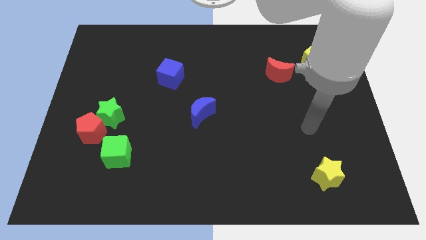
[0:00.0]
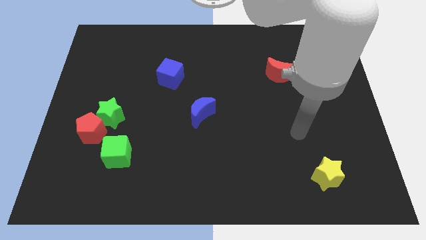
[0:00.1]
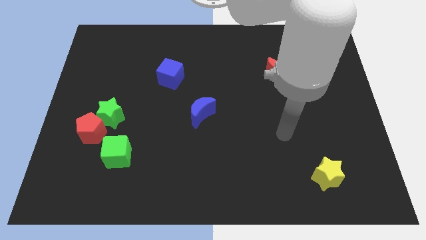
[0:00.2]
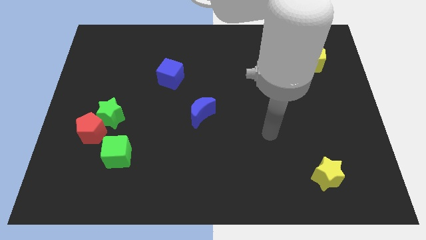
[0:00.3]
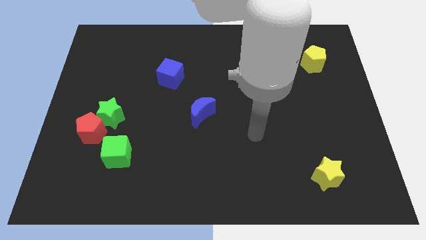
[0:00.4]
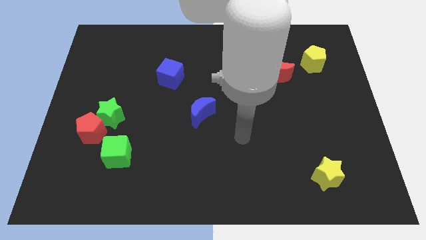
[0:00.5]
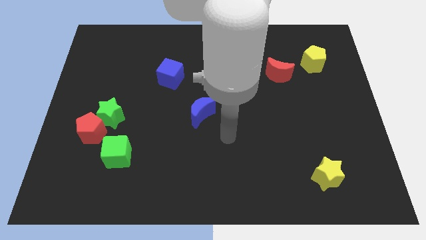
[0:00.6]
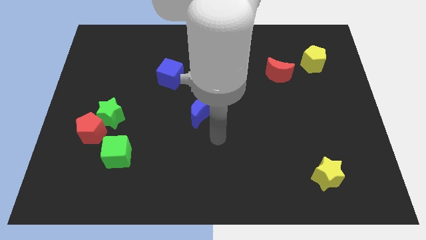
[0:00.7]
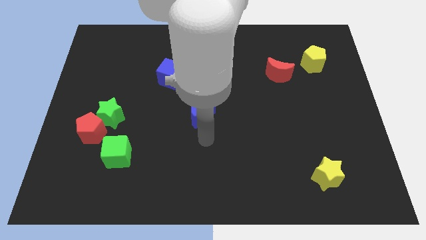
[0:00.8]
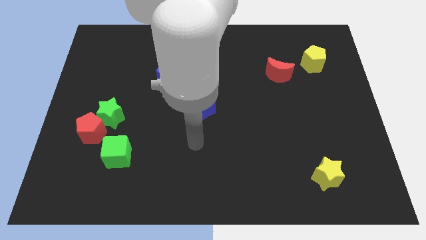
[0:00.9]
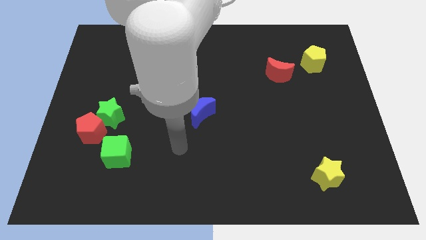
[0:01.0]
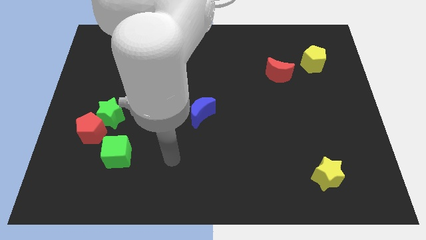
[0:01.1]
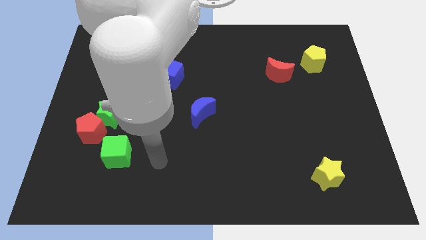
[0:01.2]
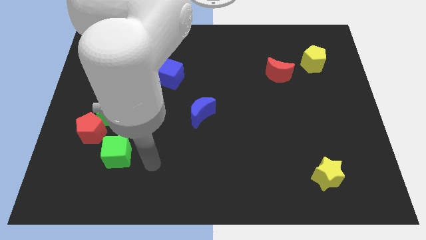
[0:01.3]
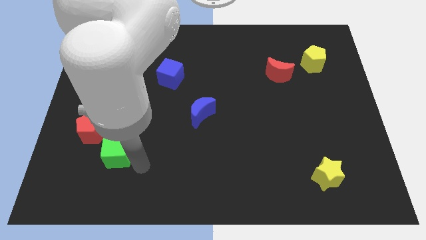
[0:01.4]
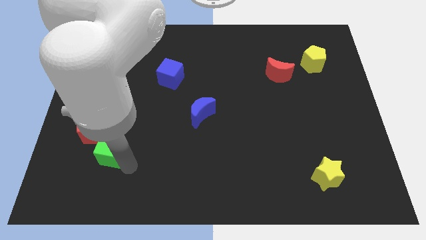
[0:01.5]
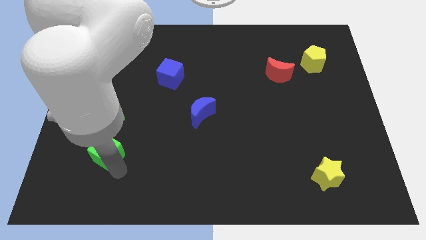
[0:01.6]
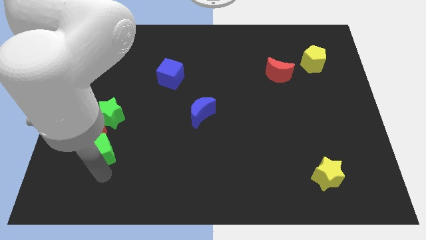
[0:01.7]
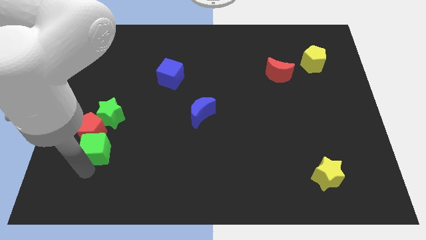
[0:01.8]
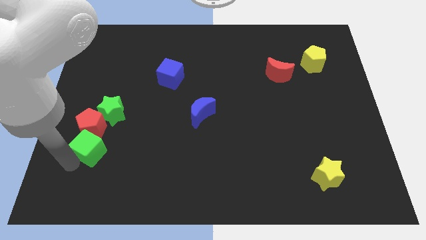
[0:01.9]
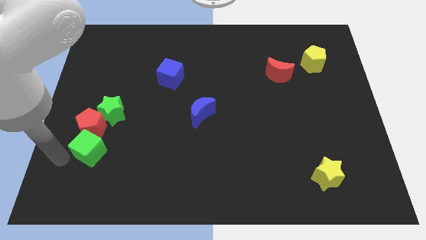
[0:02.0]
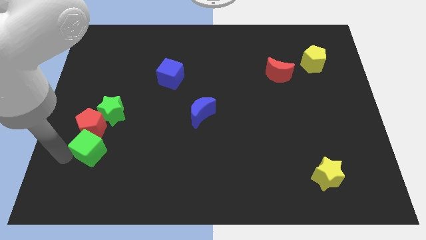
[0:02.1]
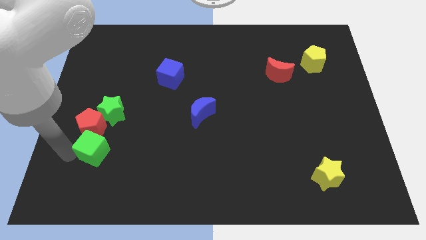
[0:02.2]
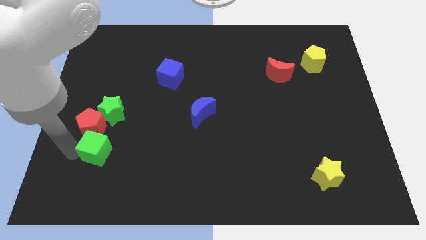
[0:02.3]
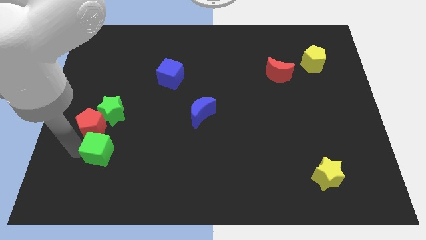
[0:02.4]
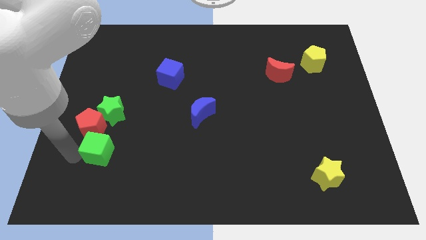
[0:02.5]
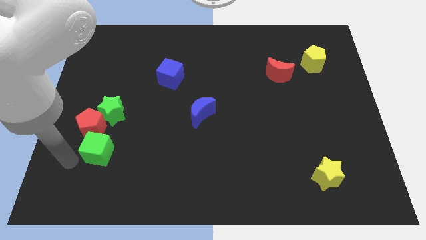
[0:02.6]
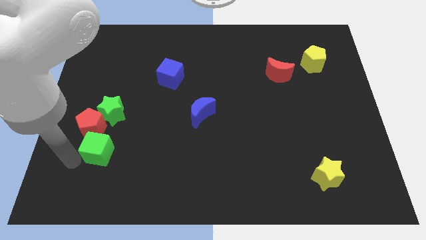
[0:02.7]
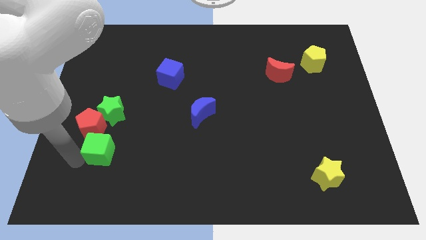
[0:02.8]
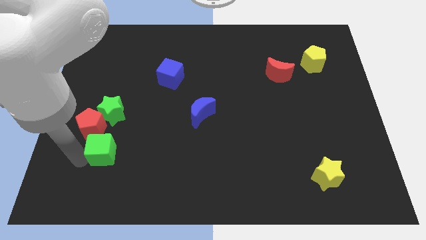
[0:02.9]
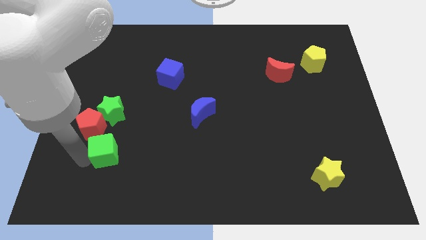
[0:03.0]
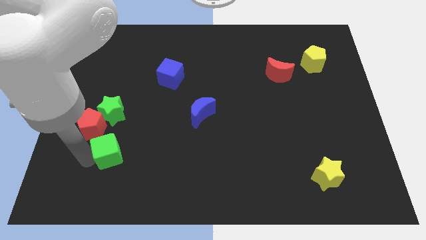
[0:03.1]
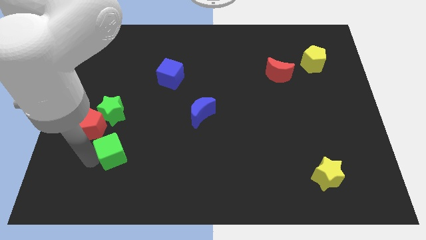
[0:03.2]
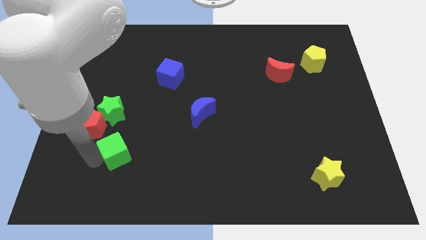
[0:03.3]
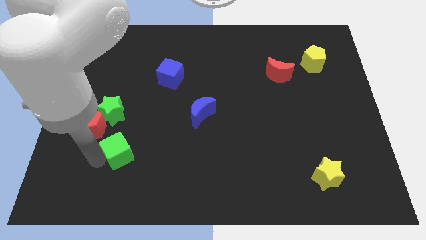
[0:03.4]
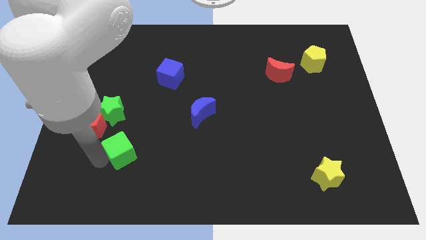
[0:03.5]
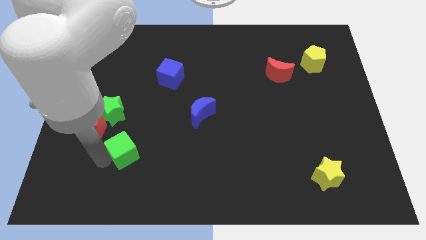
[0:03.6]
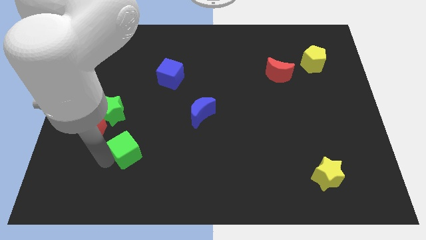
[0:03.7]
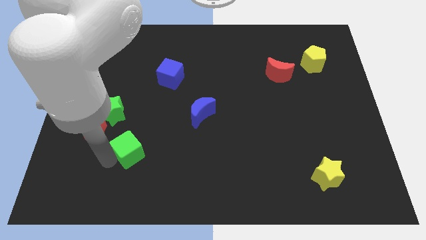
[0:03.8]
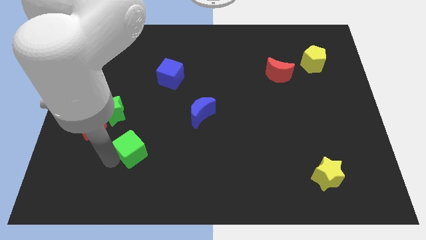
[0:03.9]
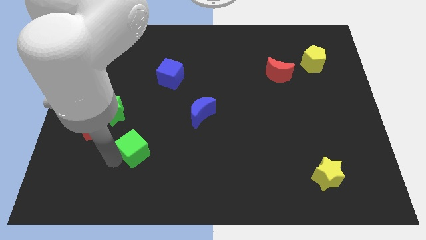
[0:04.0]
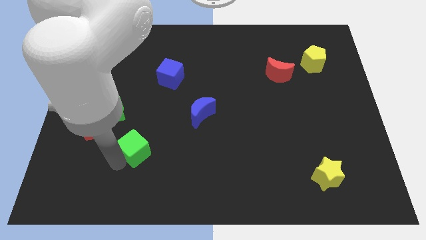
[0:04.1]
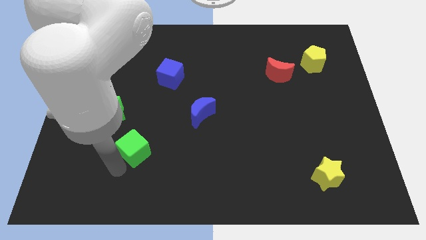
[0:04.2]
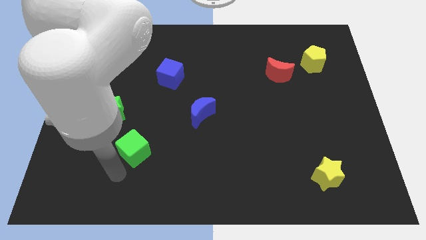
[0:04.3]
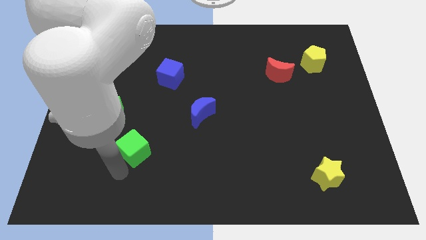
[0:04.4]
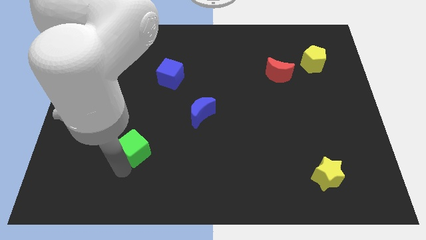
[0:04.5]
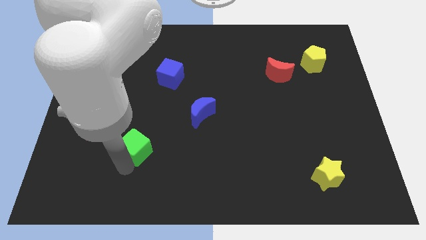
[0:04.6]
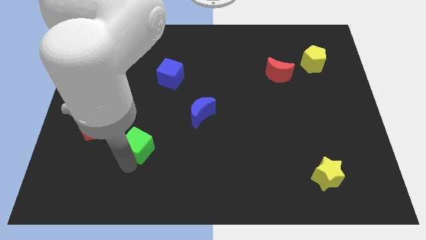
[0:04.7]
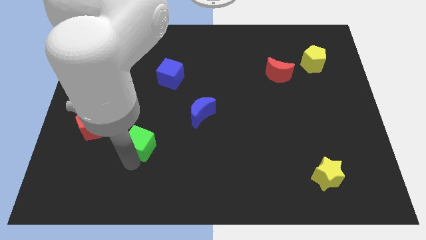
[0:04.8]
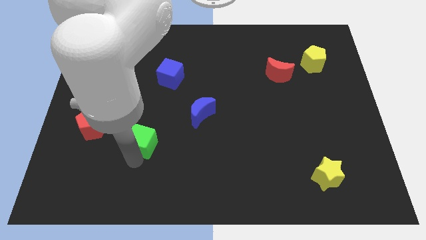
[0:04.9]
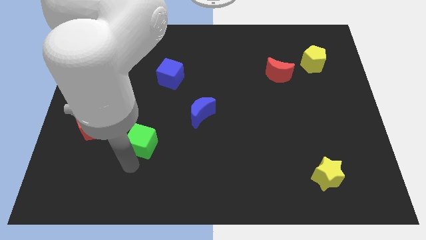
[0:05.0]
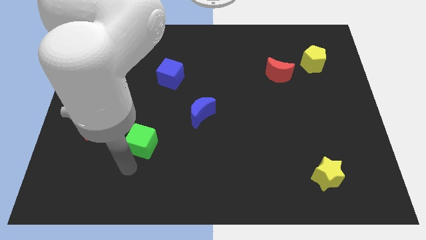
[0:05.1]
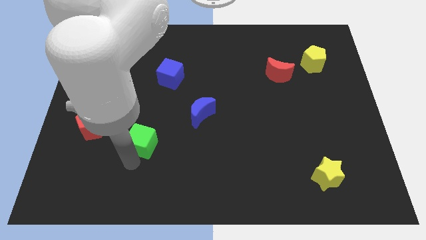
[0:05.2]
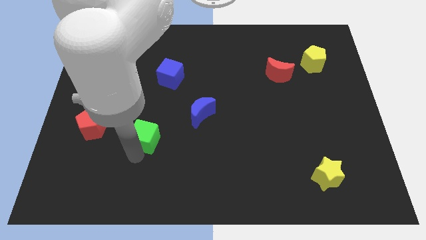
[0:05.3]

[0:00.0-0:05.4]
move the green cube a bit up and right diagonally

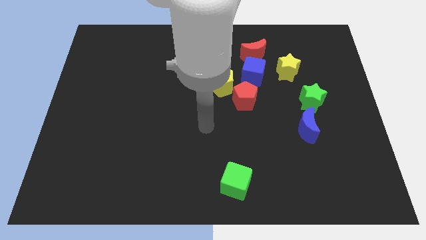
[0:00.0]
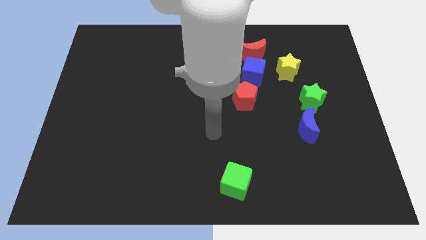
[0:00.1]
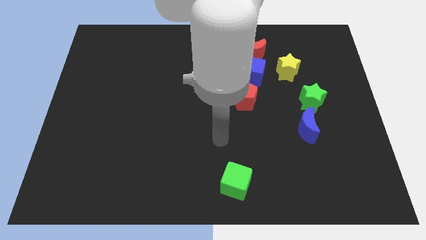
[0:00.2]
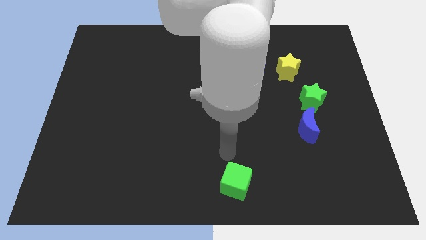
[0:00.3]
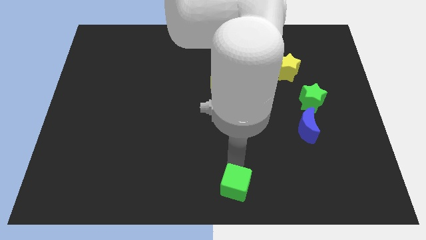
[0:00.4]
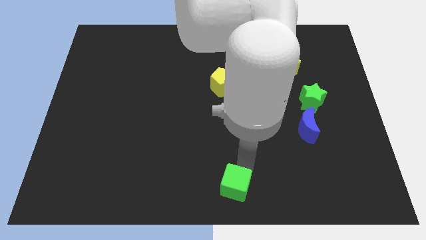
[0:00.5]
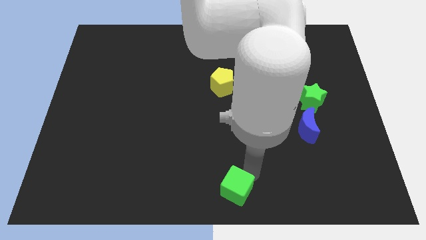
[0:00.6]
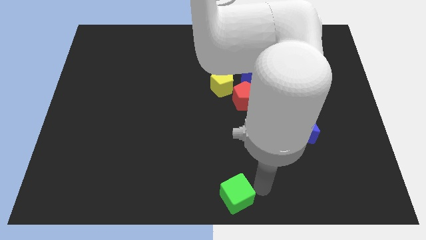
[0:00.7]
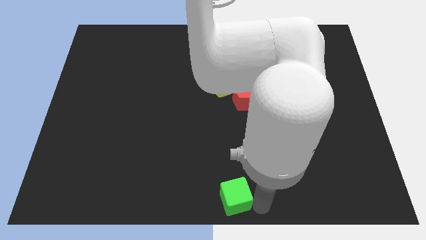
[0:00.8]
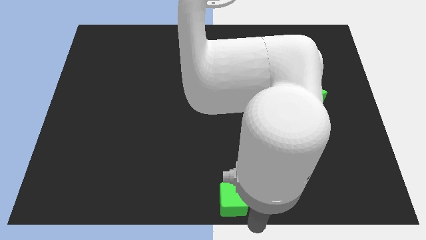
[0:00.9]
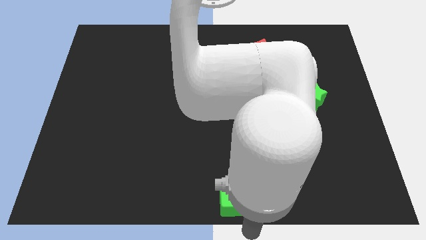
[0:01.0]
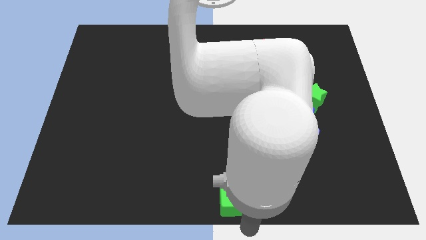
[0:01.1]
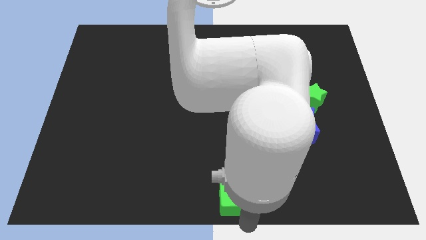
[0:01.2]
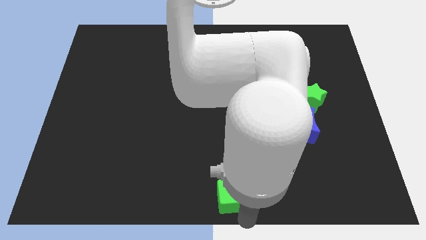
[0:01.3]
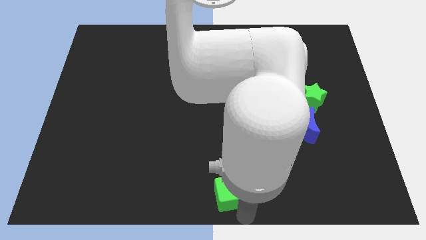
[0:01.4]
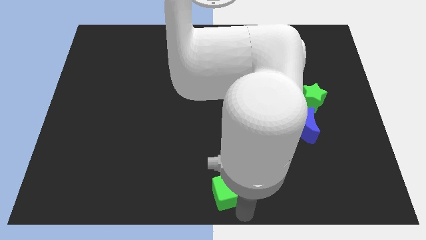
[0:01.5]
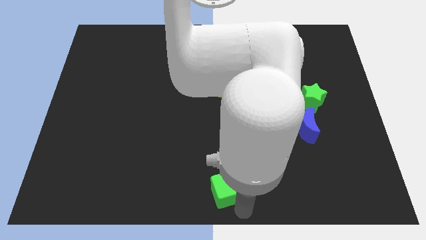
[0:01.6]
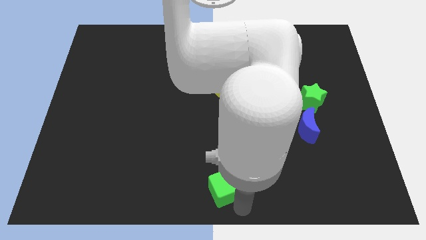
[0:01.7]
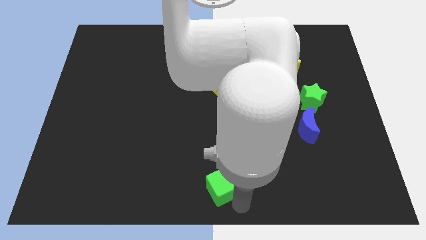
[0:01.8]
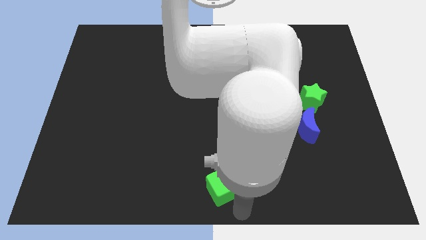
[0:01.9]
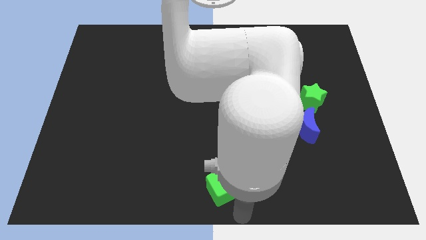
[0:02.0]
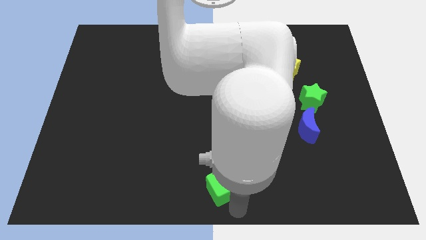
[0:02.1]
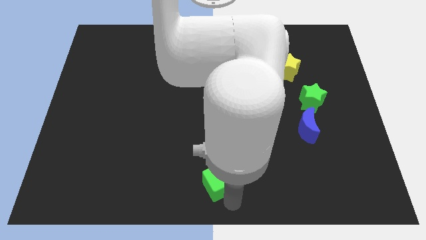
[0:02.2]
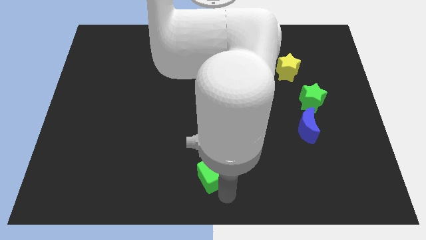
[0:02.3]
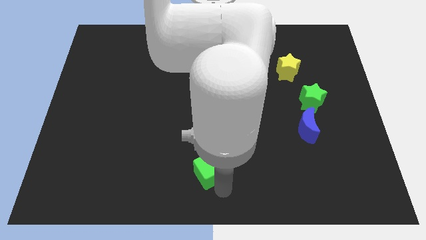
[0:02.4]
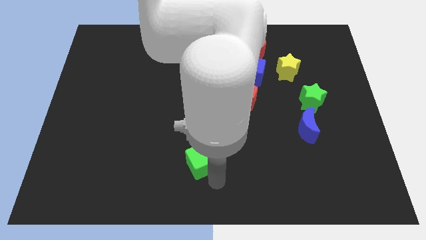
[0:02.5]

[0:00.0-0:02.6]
slightly move the green cube upwards and then left
